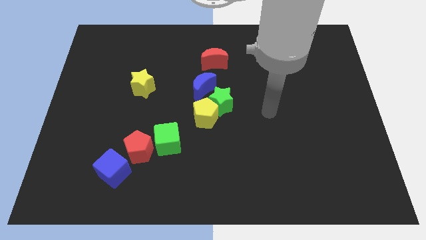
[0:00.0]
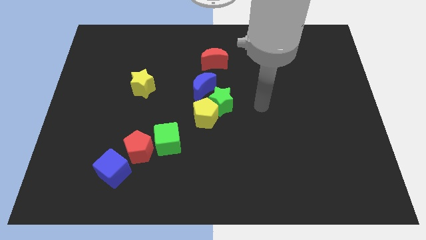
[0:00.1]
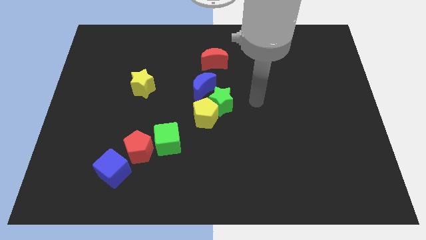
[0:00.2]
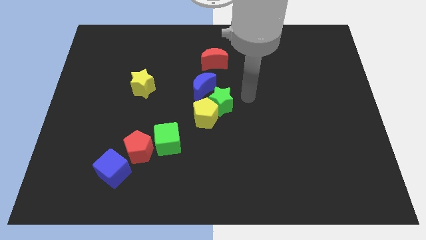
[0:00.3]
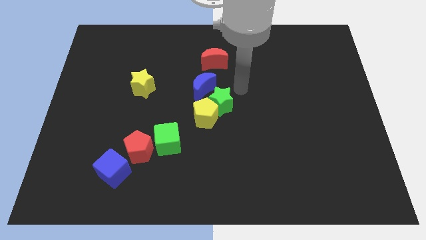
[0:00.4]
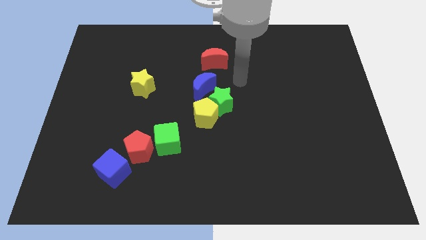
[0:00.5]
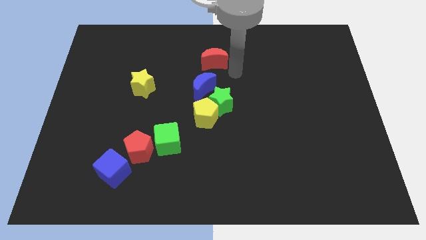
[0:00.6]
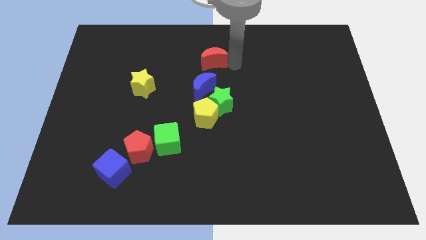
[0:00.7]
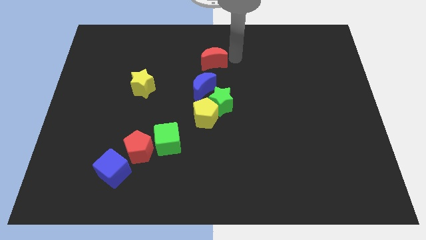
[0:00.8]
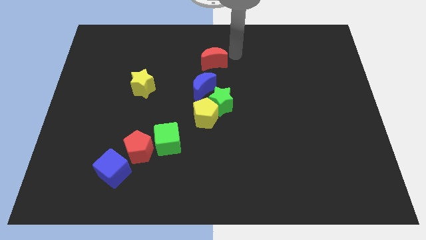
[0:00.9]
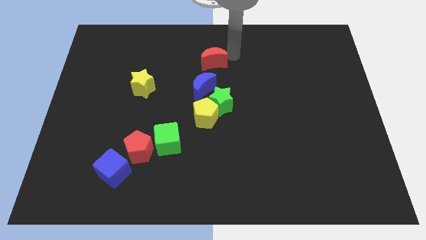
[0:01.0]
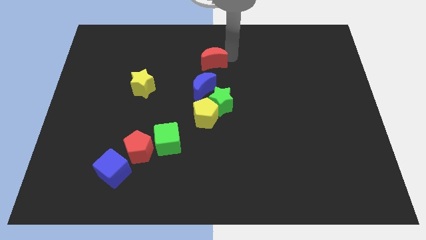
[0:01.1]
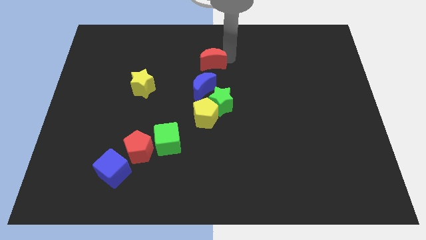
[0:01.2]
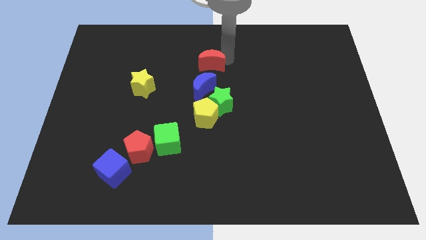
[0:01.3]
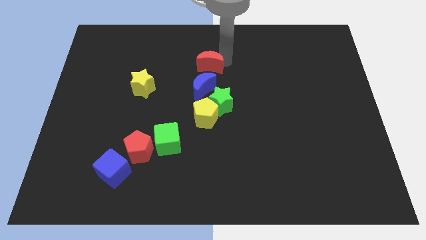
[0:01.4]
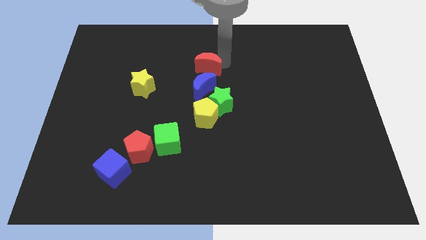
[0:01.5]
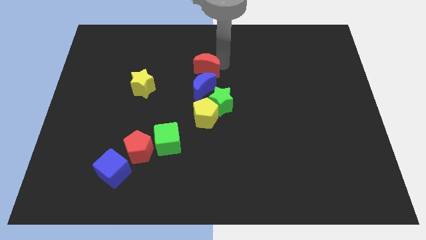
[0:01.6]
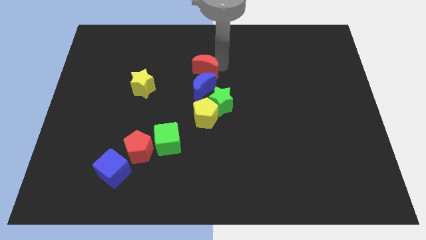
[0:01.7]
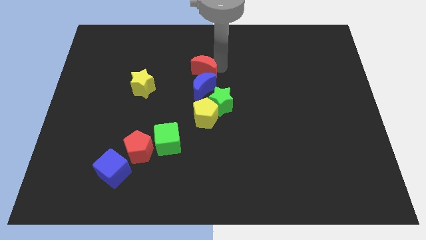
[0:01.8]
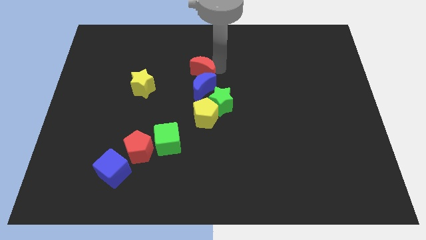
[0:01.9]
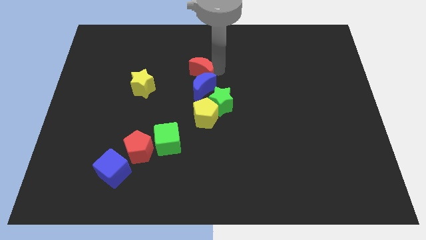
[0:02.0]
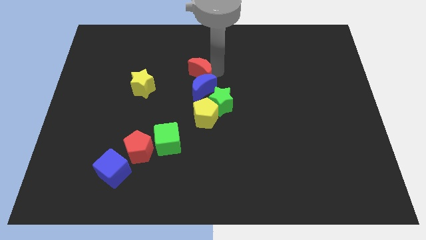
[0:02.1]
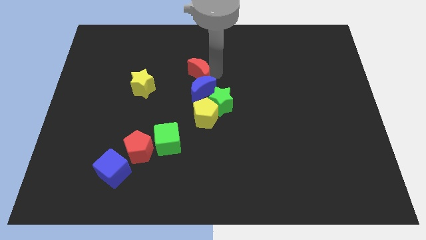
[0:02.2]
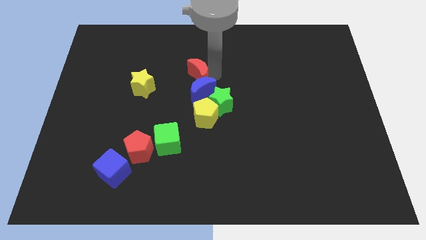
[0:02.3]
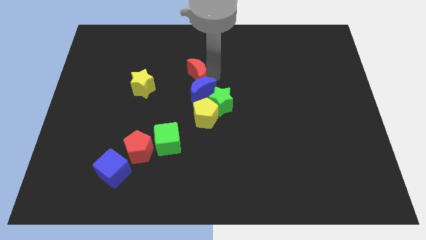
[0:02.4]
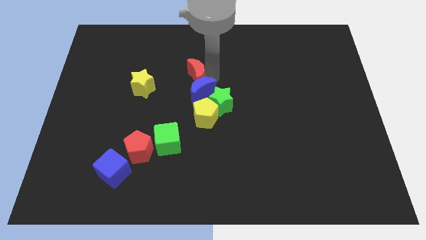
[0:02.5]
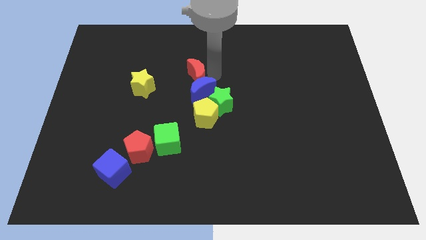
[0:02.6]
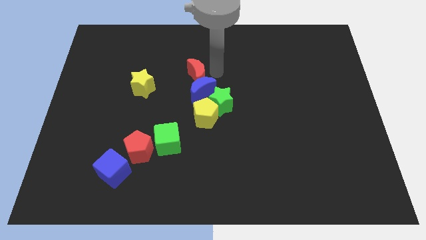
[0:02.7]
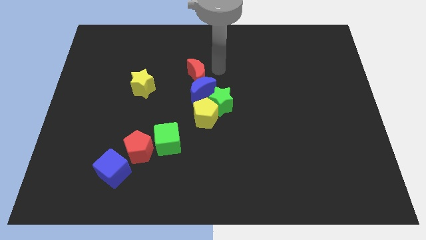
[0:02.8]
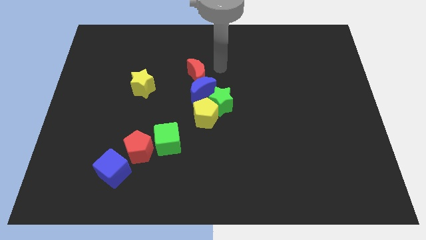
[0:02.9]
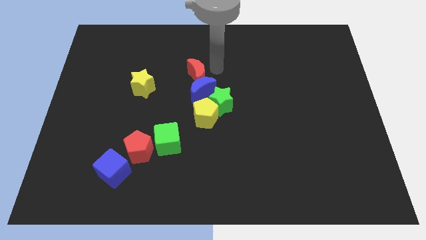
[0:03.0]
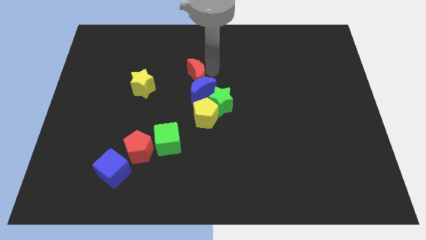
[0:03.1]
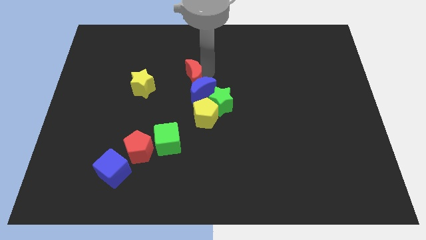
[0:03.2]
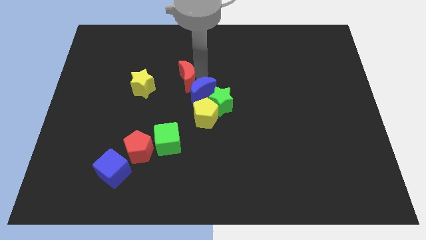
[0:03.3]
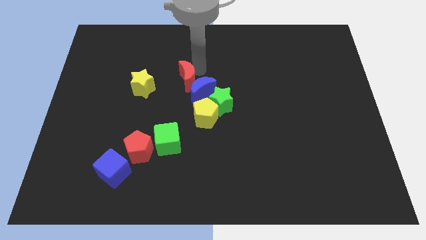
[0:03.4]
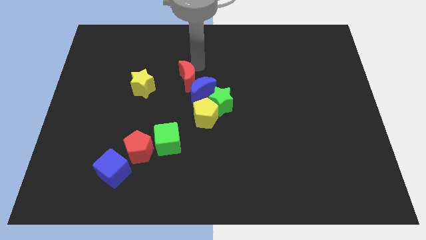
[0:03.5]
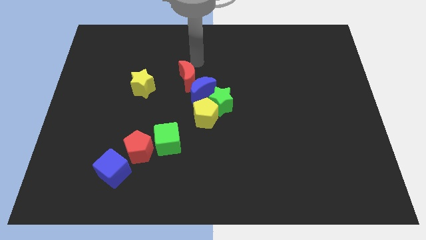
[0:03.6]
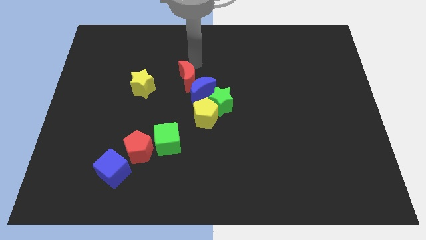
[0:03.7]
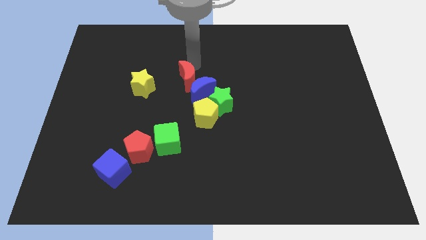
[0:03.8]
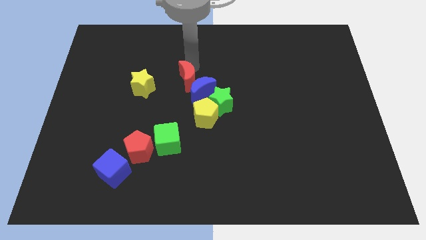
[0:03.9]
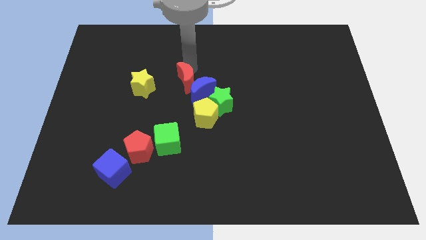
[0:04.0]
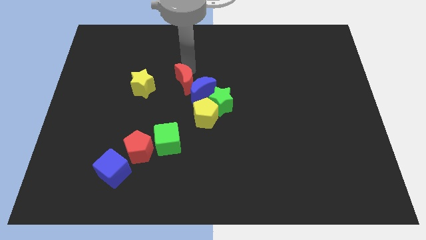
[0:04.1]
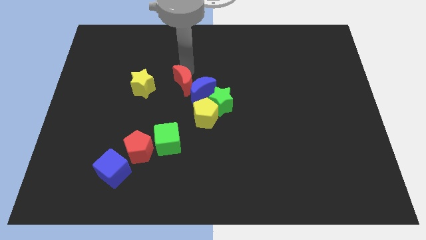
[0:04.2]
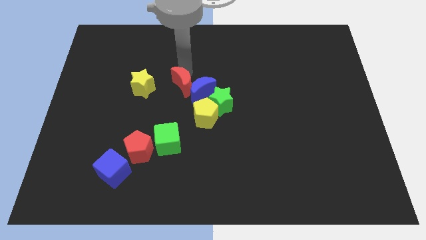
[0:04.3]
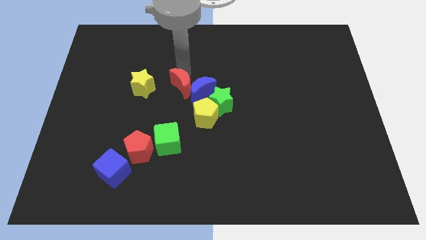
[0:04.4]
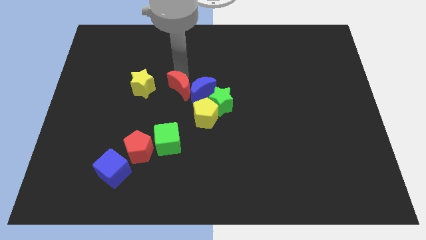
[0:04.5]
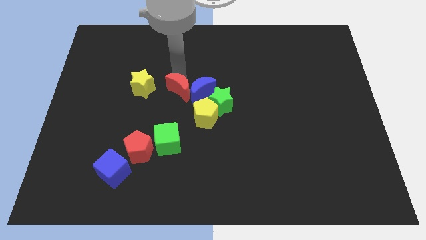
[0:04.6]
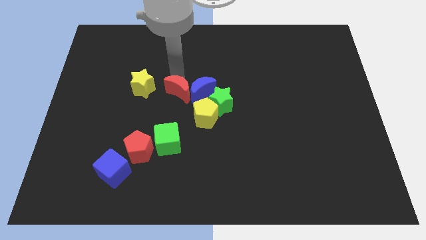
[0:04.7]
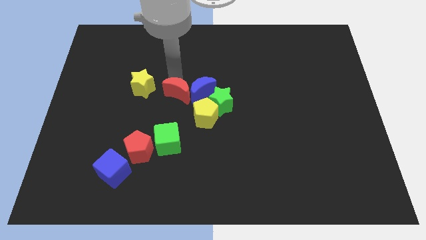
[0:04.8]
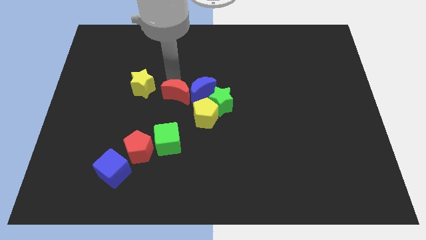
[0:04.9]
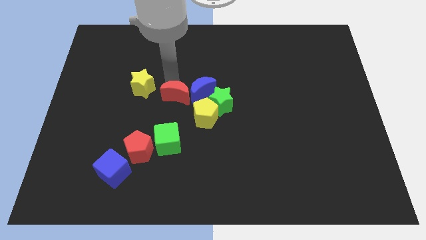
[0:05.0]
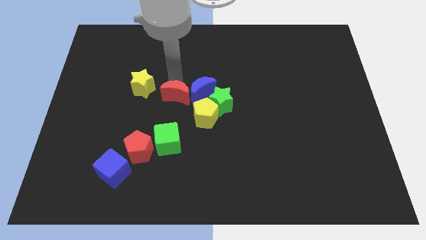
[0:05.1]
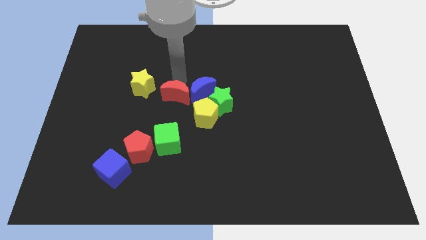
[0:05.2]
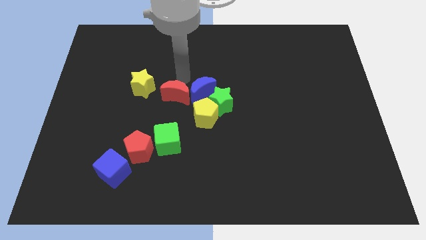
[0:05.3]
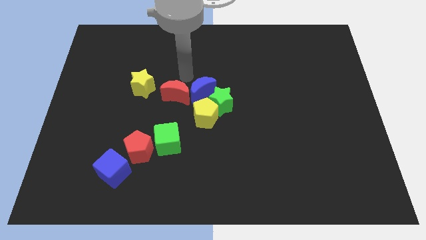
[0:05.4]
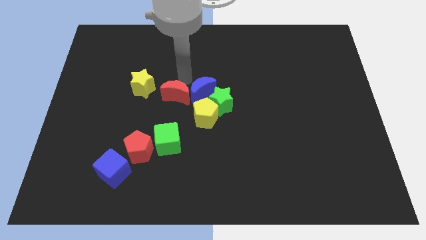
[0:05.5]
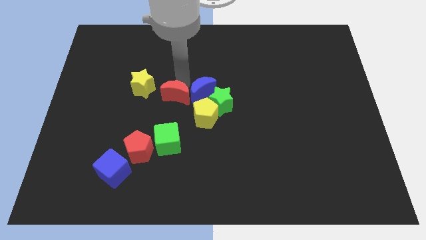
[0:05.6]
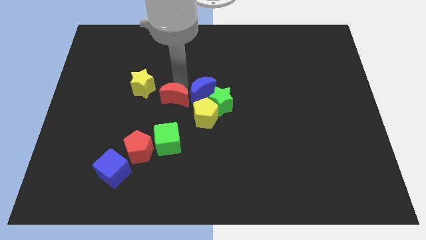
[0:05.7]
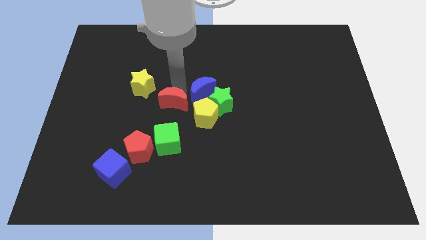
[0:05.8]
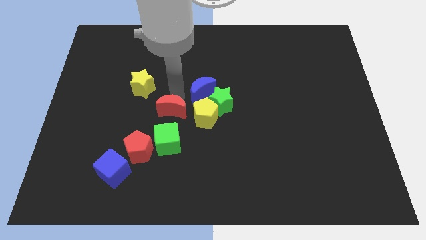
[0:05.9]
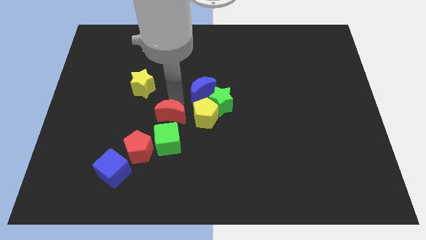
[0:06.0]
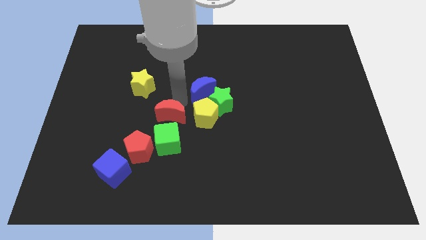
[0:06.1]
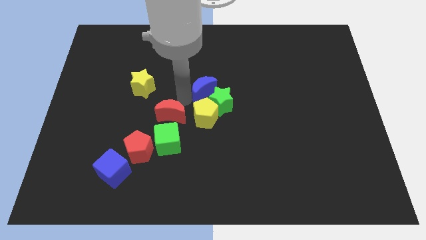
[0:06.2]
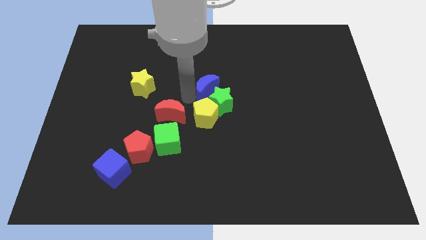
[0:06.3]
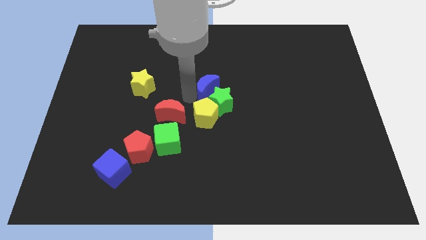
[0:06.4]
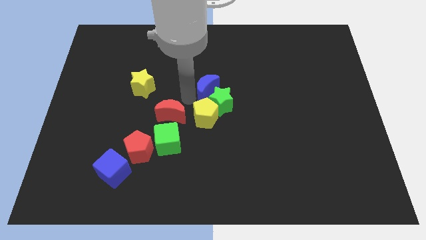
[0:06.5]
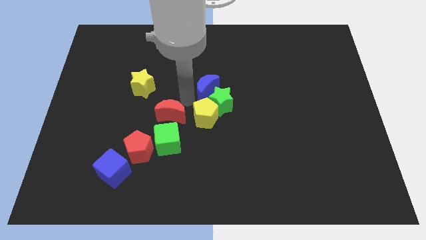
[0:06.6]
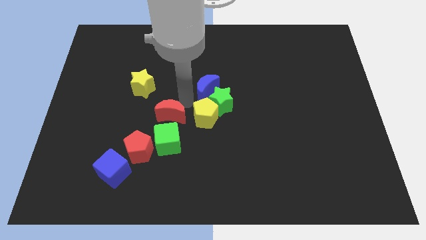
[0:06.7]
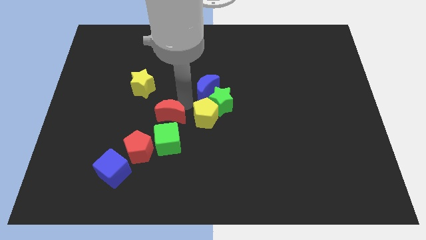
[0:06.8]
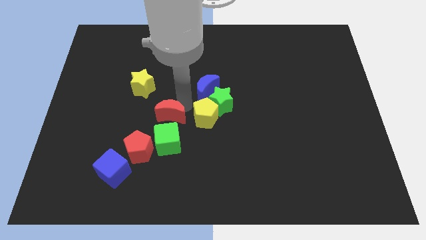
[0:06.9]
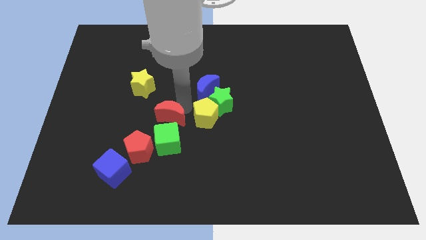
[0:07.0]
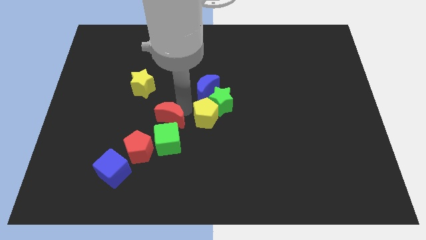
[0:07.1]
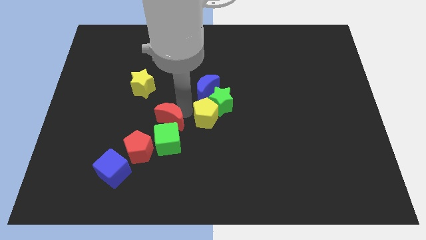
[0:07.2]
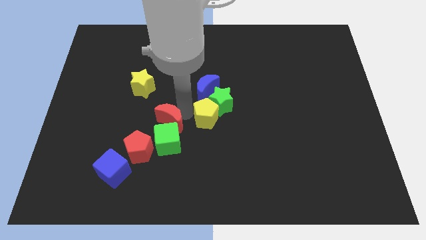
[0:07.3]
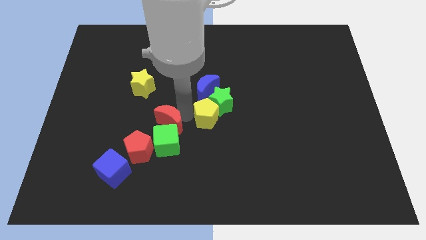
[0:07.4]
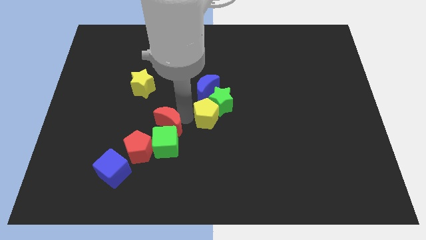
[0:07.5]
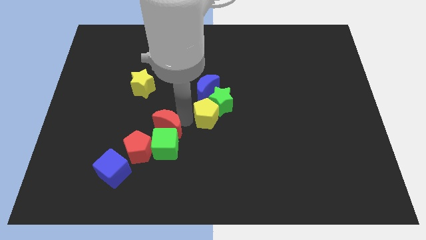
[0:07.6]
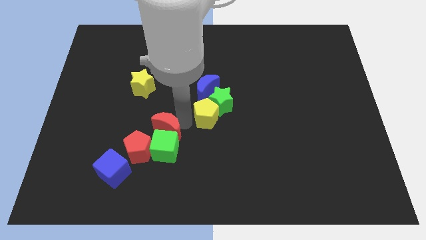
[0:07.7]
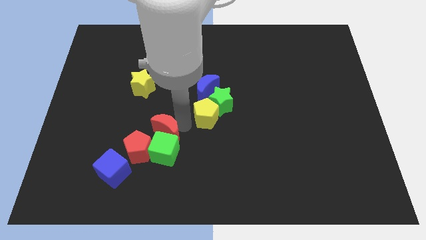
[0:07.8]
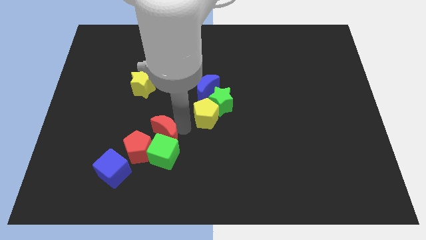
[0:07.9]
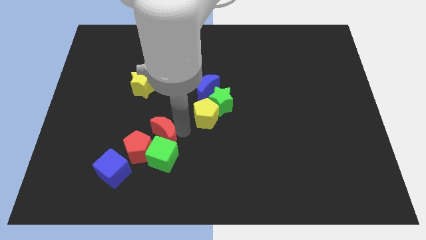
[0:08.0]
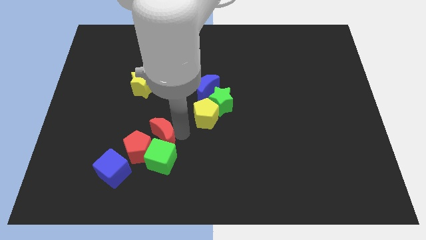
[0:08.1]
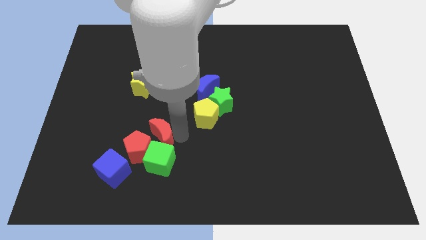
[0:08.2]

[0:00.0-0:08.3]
move the red moon next to the red pentagon
